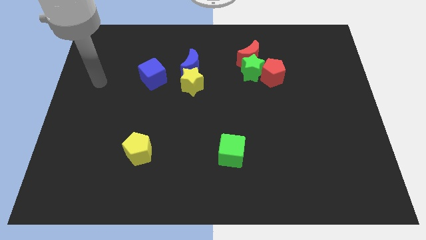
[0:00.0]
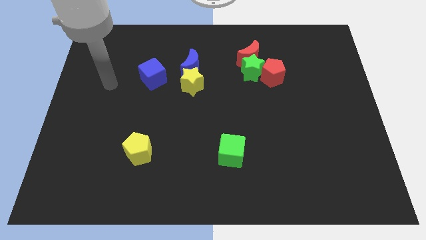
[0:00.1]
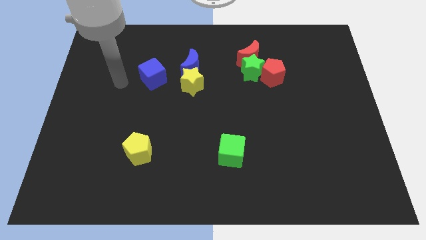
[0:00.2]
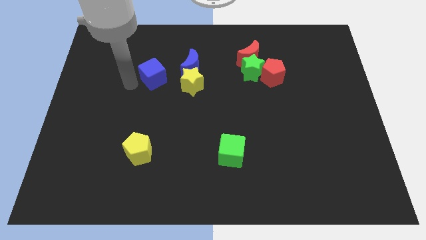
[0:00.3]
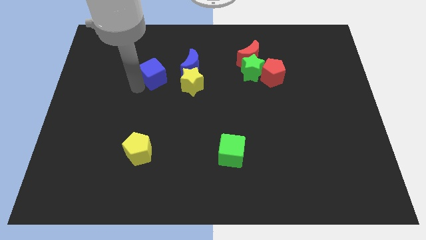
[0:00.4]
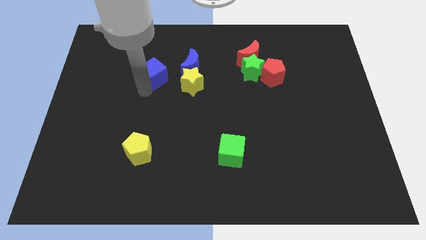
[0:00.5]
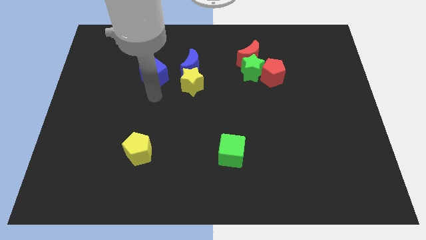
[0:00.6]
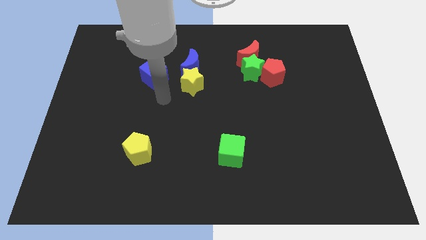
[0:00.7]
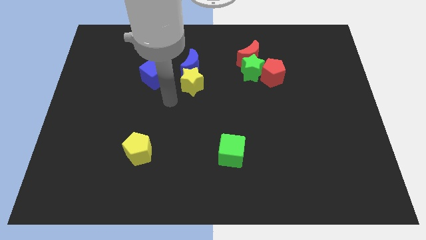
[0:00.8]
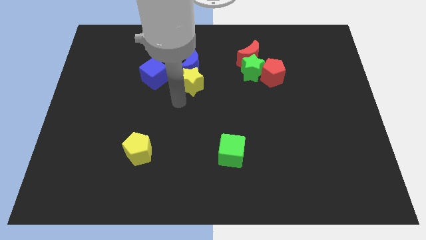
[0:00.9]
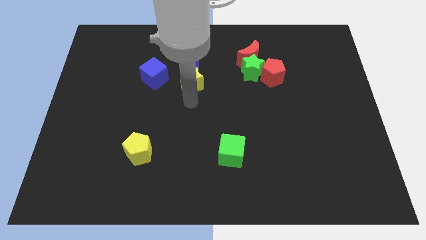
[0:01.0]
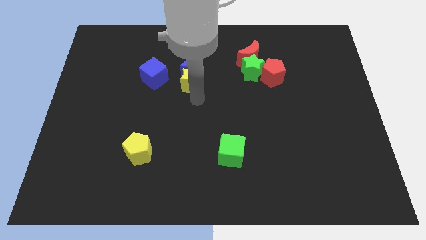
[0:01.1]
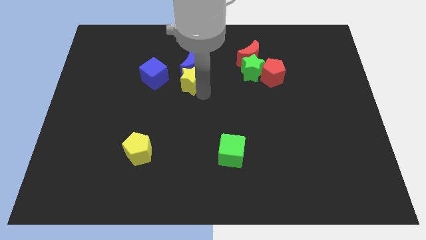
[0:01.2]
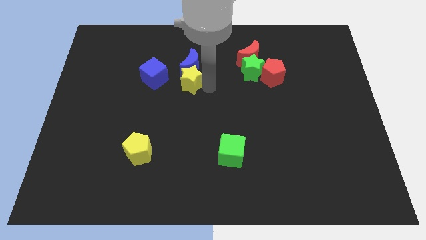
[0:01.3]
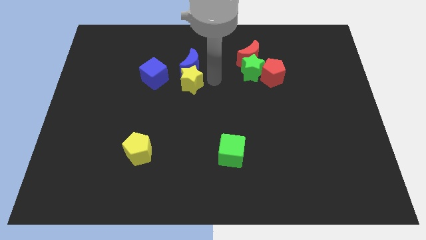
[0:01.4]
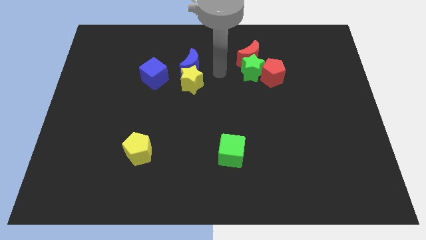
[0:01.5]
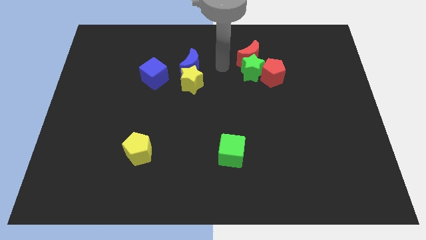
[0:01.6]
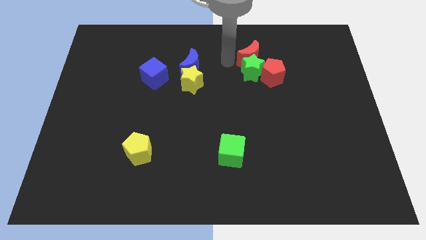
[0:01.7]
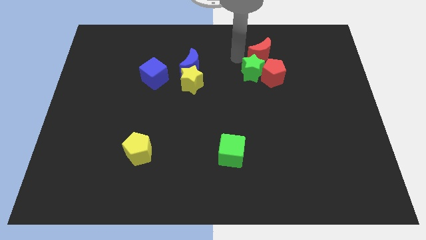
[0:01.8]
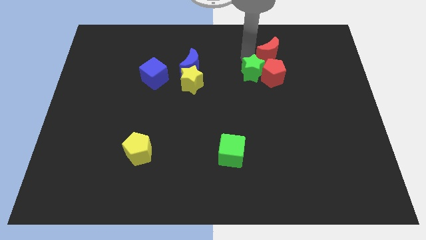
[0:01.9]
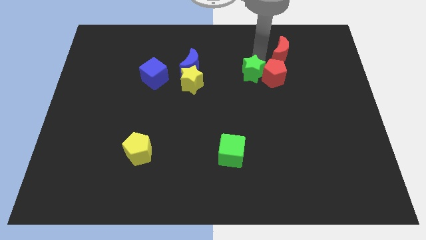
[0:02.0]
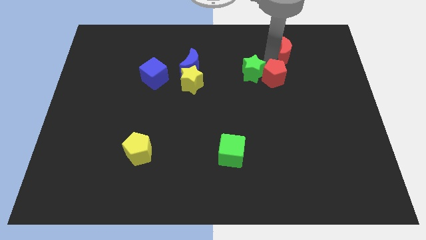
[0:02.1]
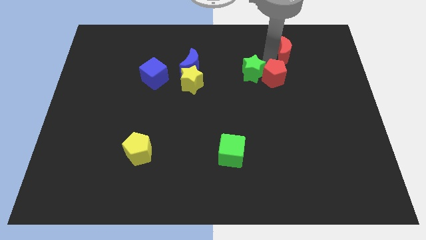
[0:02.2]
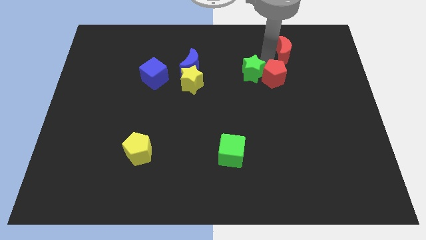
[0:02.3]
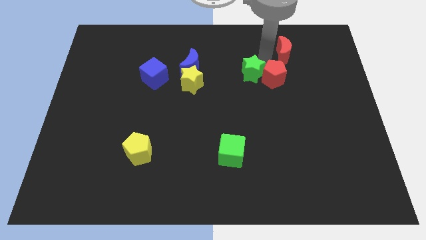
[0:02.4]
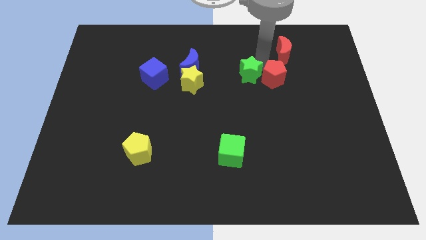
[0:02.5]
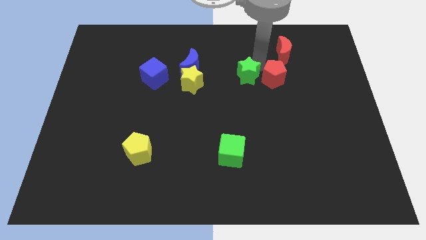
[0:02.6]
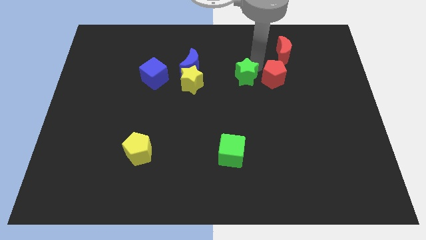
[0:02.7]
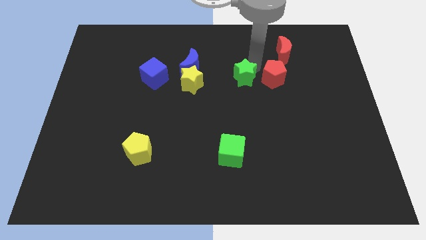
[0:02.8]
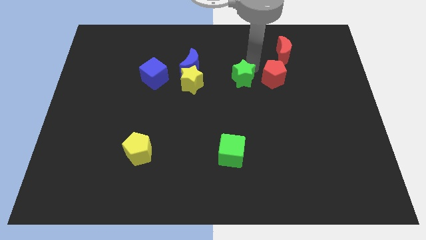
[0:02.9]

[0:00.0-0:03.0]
move the green star away from the red moon and red pentagon

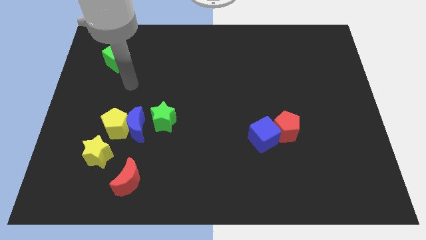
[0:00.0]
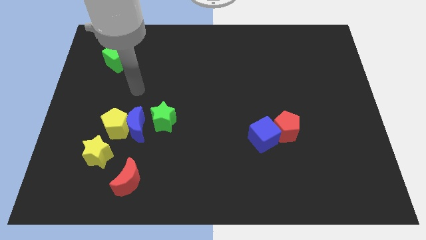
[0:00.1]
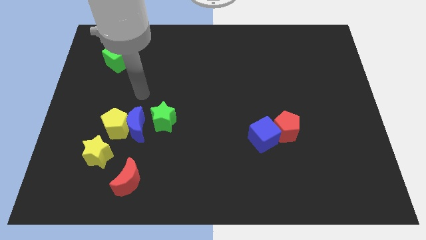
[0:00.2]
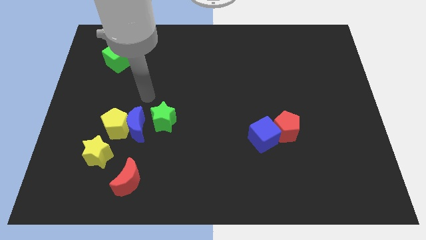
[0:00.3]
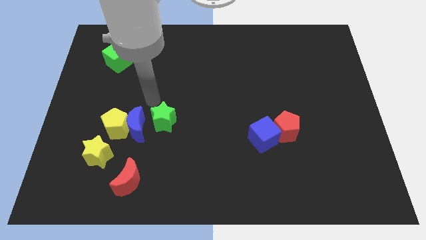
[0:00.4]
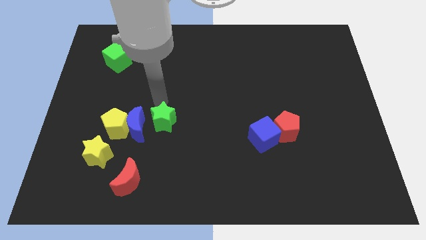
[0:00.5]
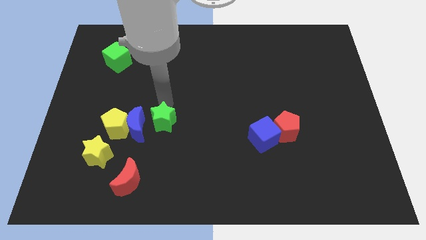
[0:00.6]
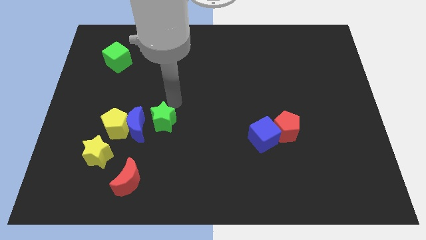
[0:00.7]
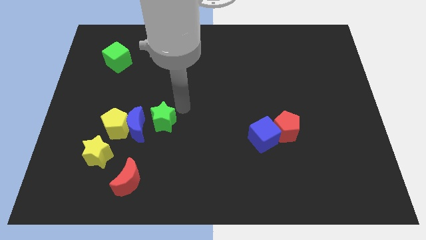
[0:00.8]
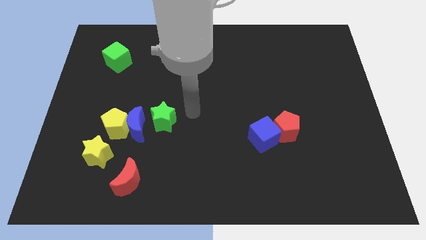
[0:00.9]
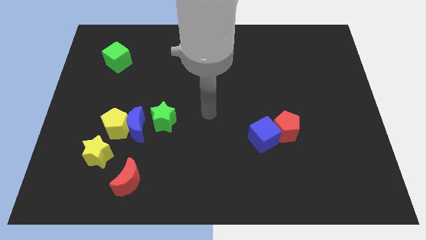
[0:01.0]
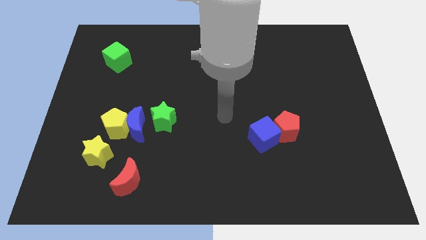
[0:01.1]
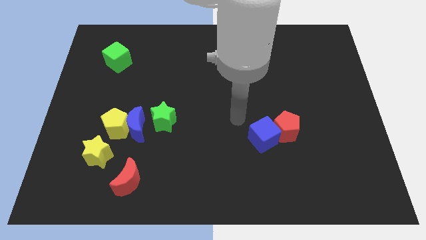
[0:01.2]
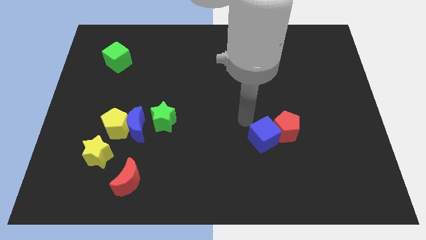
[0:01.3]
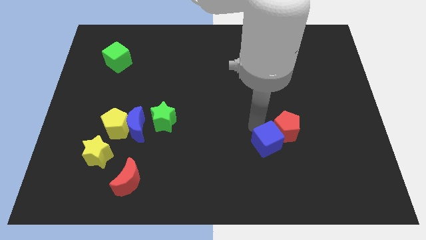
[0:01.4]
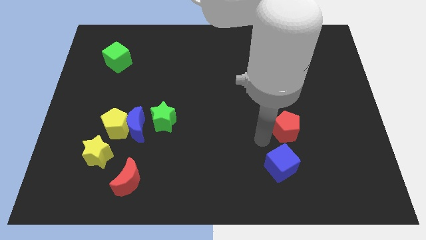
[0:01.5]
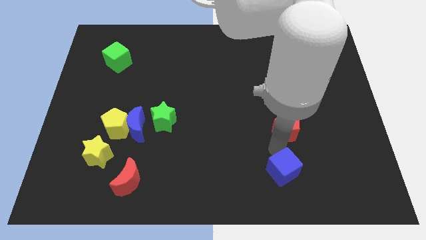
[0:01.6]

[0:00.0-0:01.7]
pull the red pentagon apart from the blue cube

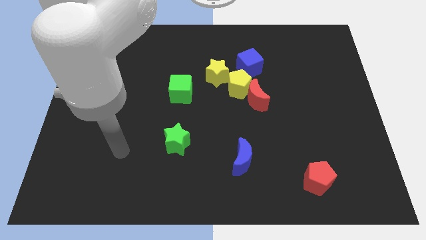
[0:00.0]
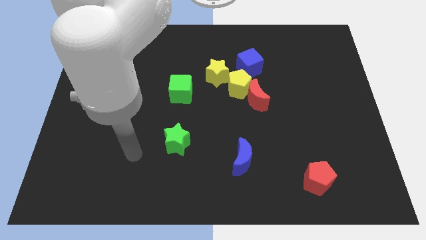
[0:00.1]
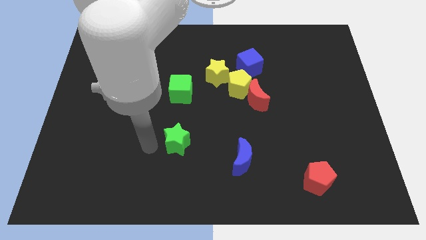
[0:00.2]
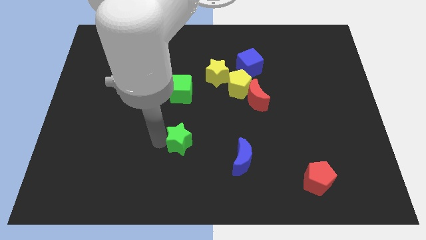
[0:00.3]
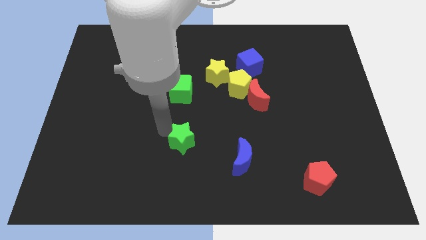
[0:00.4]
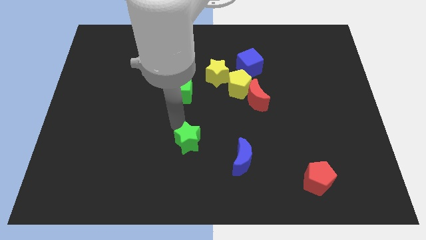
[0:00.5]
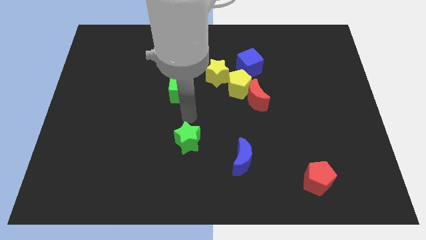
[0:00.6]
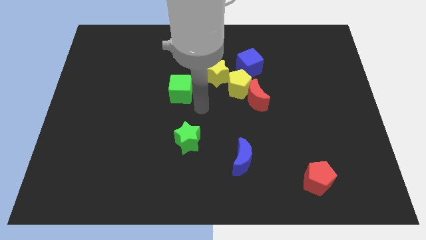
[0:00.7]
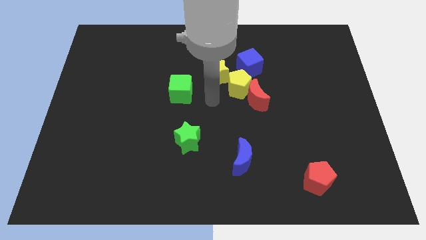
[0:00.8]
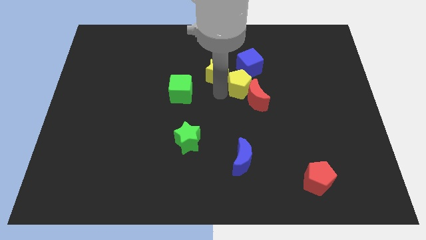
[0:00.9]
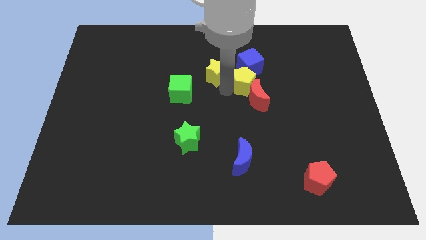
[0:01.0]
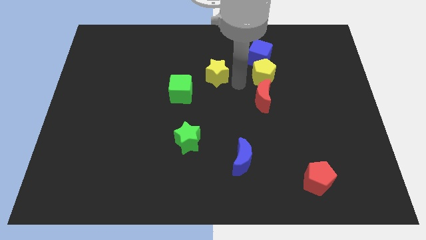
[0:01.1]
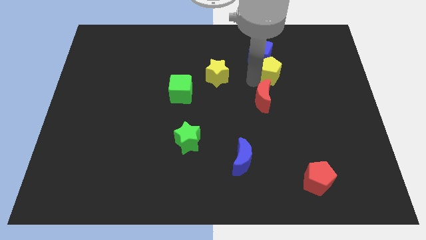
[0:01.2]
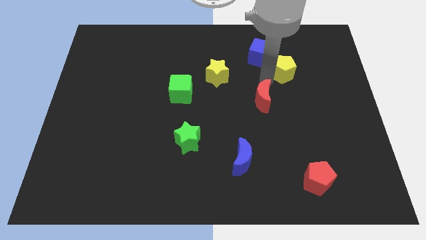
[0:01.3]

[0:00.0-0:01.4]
move the red moon away from the yellow pentagon

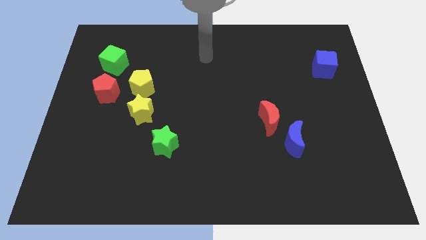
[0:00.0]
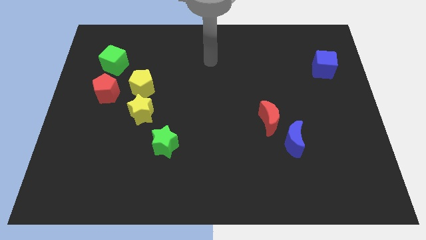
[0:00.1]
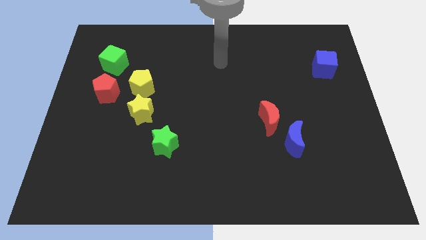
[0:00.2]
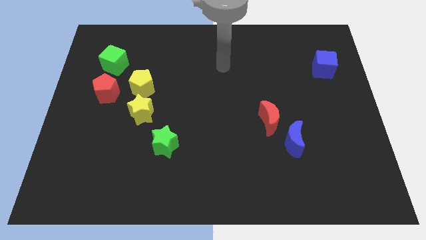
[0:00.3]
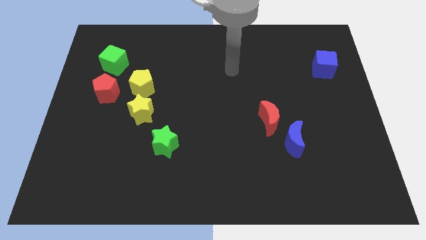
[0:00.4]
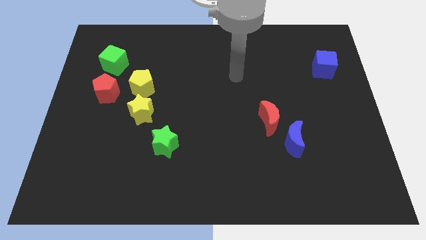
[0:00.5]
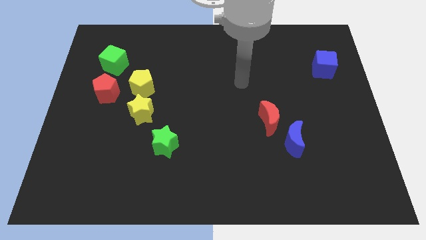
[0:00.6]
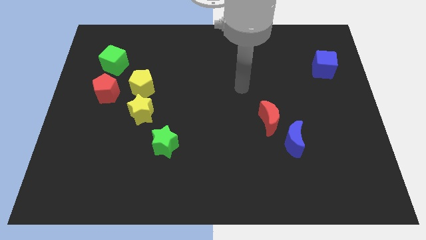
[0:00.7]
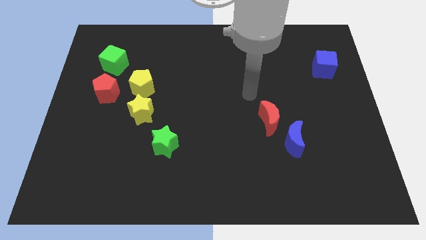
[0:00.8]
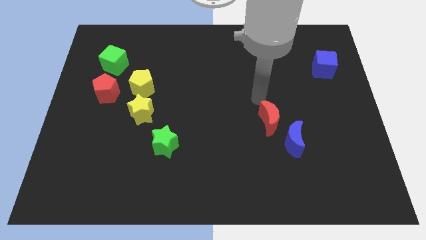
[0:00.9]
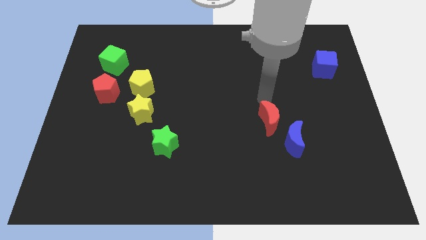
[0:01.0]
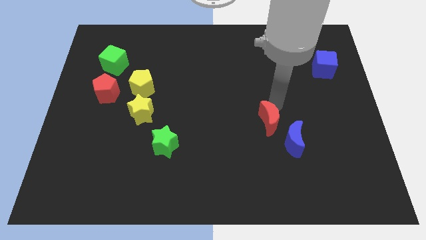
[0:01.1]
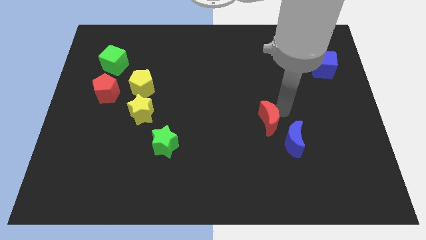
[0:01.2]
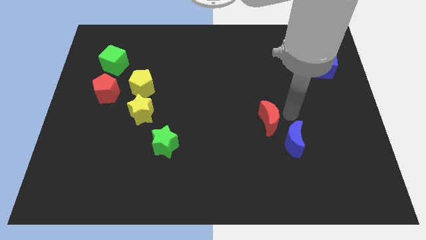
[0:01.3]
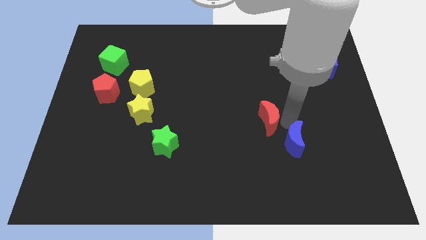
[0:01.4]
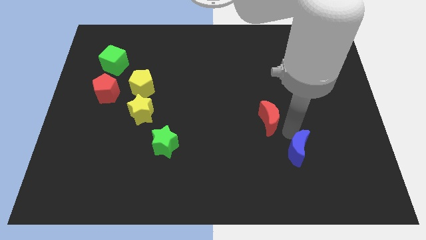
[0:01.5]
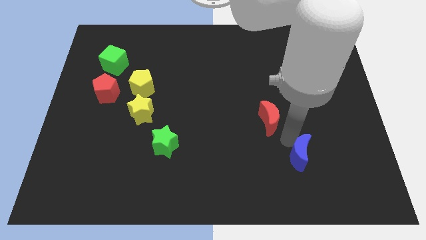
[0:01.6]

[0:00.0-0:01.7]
separate the red moon from the blue moon

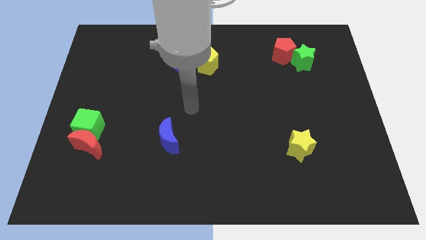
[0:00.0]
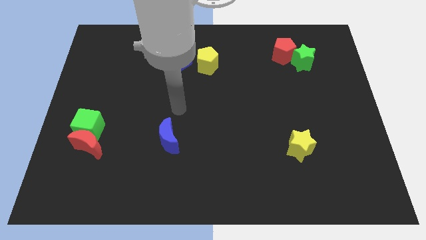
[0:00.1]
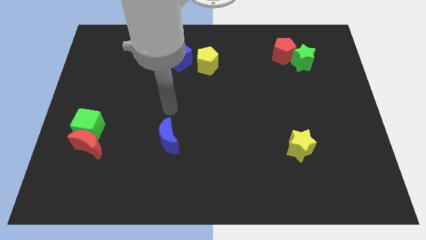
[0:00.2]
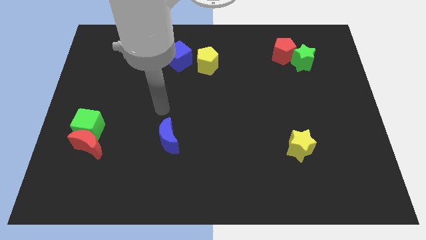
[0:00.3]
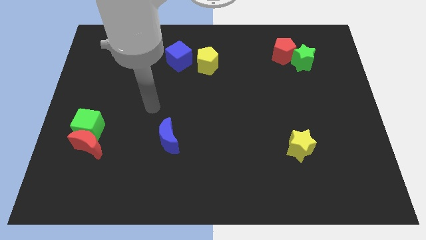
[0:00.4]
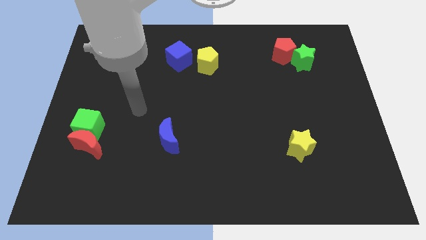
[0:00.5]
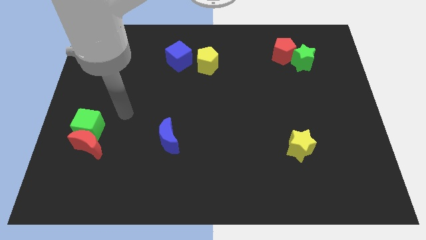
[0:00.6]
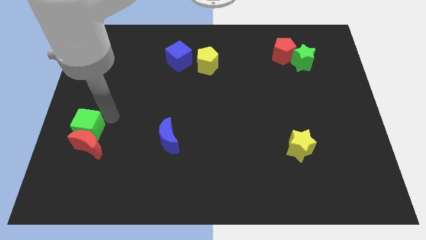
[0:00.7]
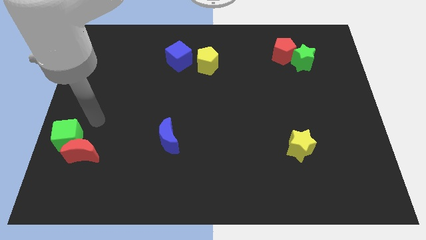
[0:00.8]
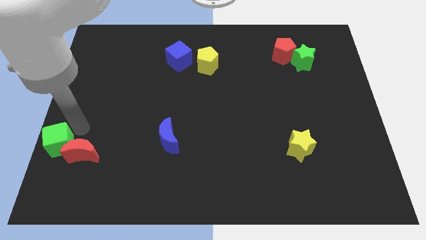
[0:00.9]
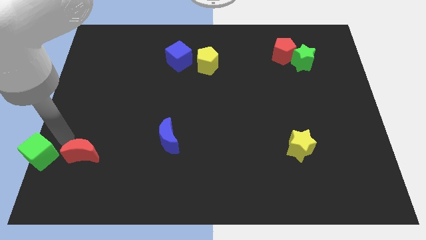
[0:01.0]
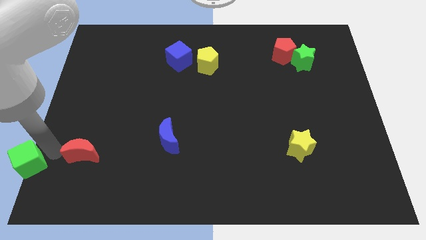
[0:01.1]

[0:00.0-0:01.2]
pull the red moon apart from the green cube

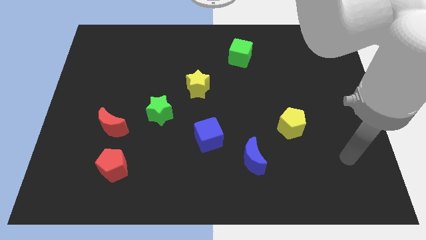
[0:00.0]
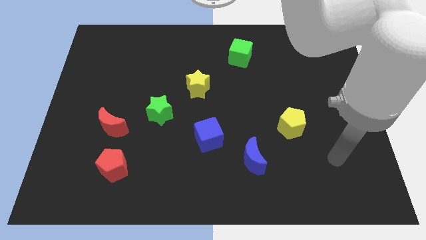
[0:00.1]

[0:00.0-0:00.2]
pull the red moon apart from the red pentagon

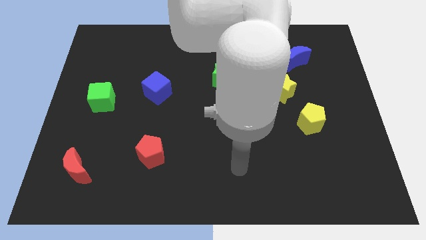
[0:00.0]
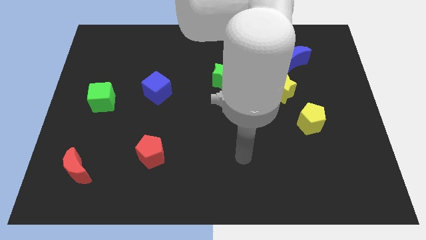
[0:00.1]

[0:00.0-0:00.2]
pull the yellow star apart from the yellow pentagon
